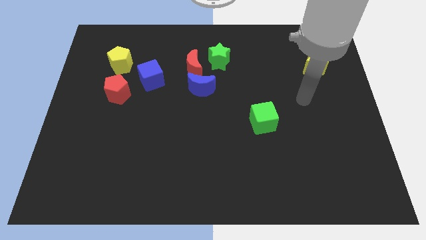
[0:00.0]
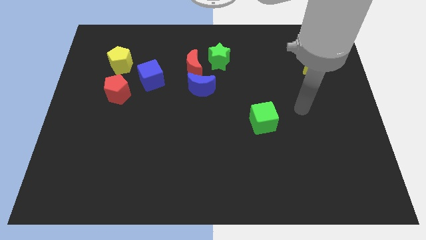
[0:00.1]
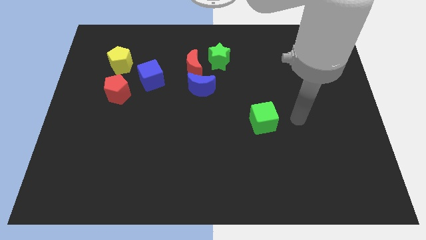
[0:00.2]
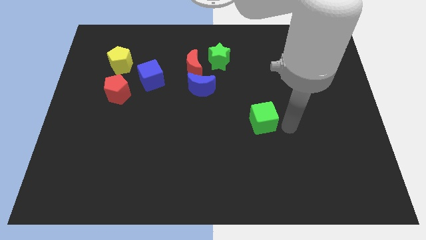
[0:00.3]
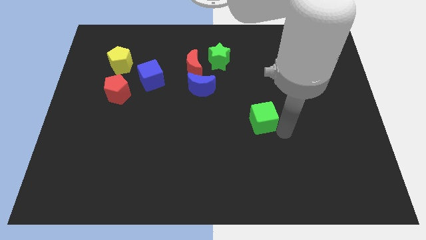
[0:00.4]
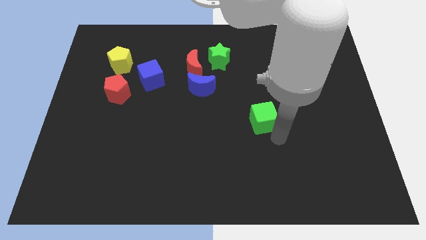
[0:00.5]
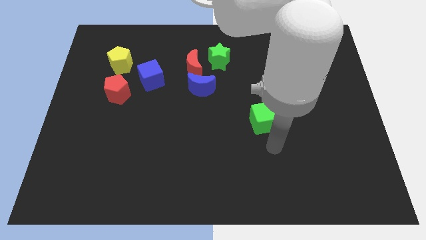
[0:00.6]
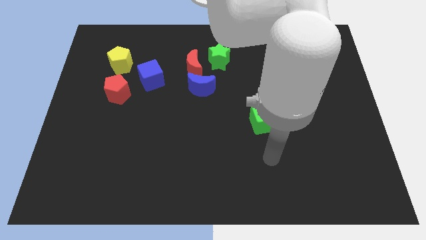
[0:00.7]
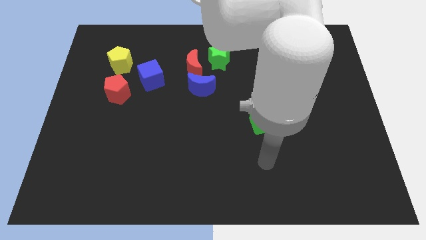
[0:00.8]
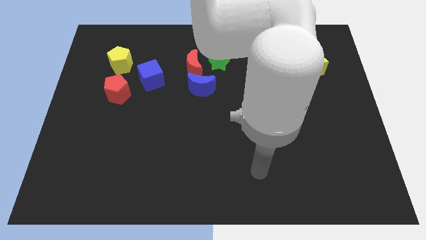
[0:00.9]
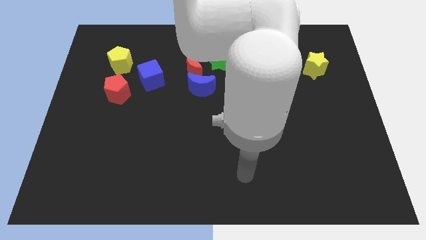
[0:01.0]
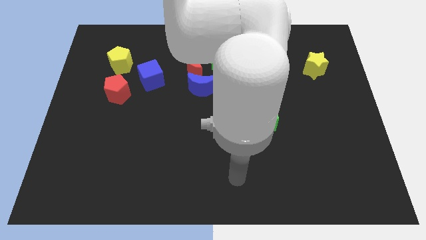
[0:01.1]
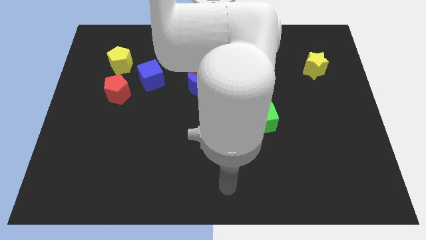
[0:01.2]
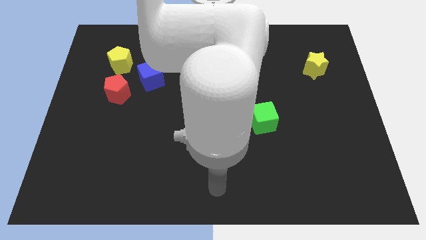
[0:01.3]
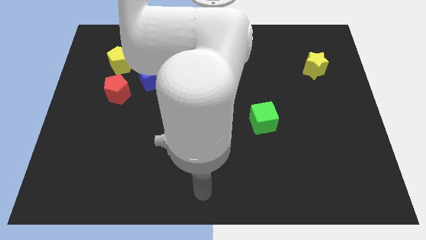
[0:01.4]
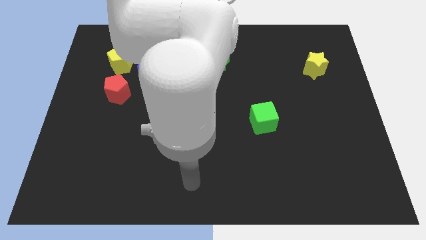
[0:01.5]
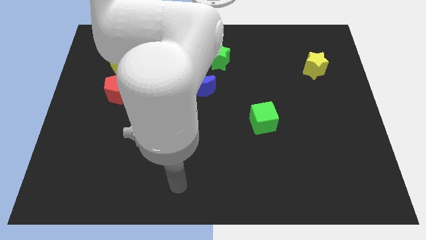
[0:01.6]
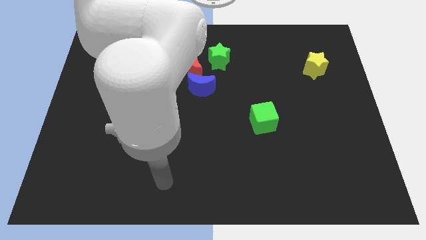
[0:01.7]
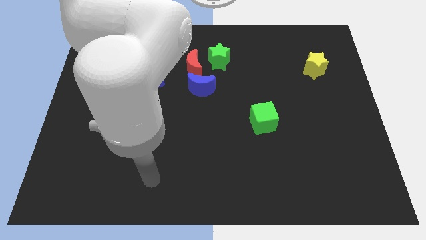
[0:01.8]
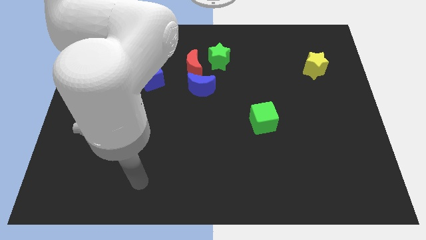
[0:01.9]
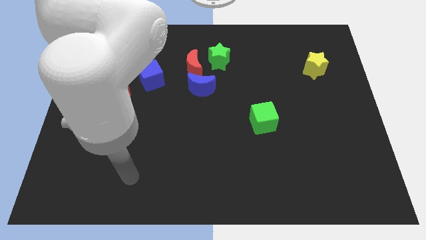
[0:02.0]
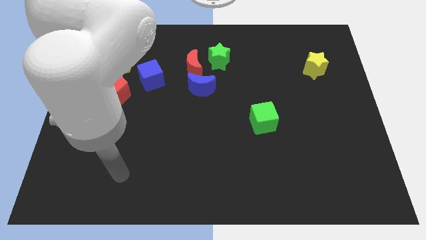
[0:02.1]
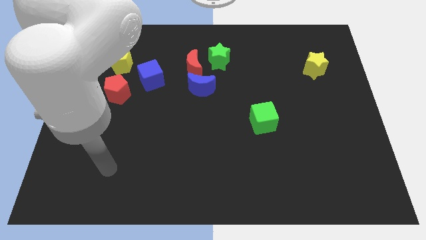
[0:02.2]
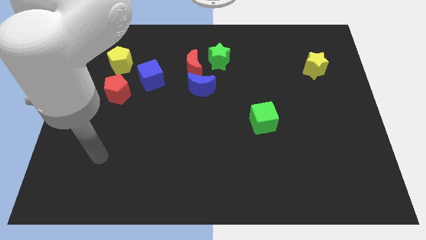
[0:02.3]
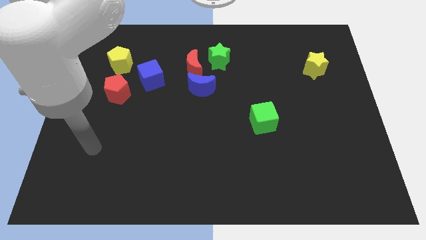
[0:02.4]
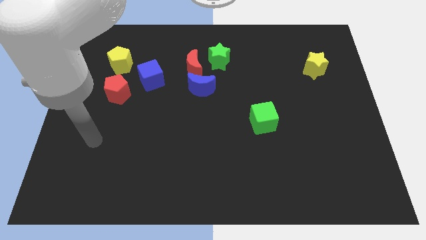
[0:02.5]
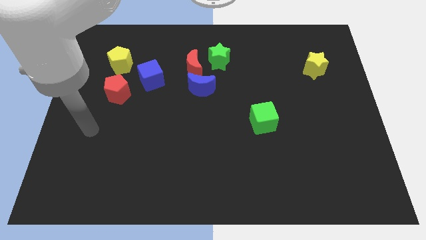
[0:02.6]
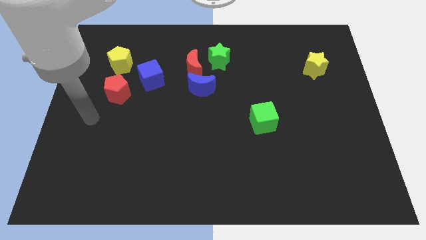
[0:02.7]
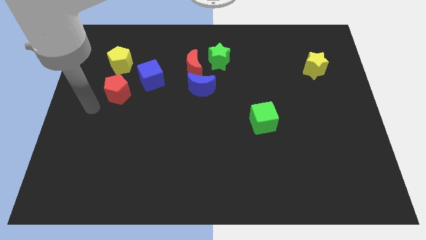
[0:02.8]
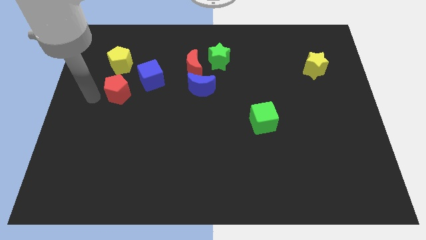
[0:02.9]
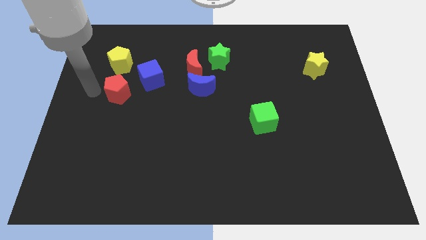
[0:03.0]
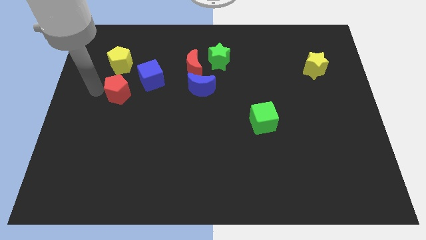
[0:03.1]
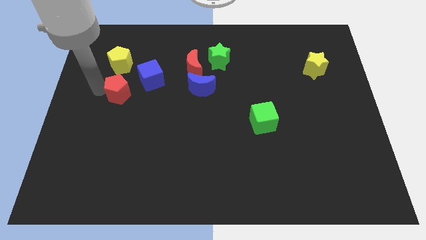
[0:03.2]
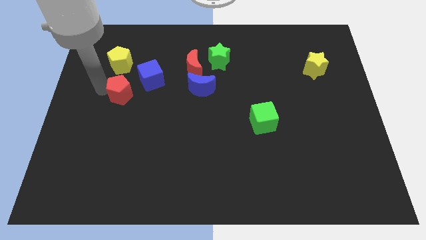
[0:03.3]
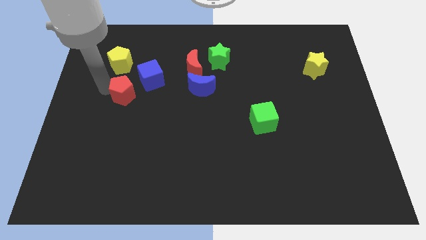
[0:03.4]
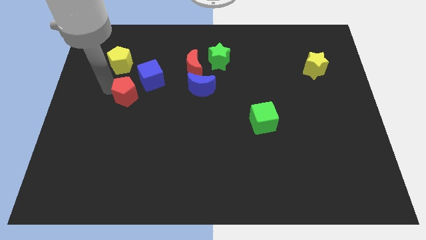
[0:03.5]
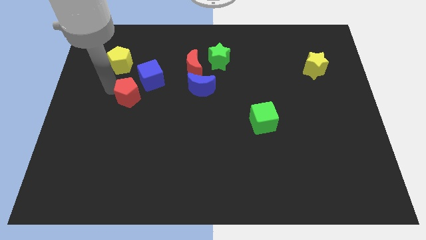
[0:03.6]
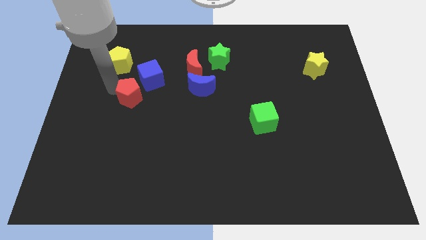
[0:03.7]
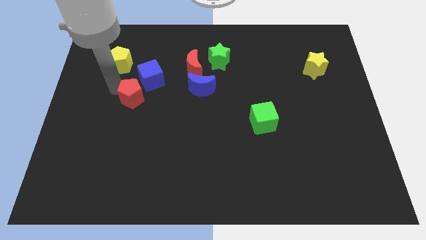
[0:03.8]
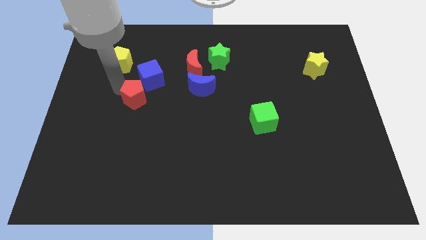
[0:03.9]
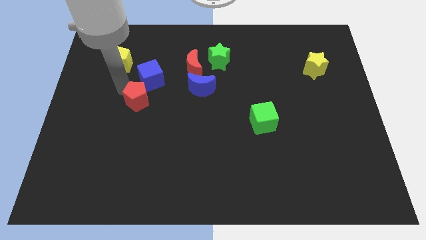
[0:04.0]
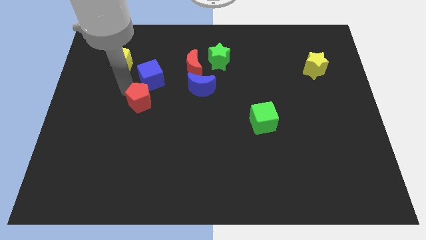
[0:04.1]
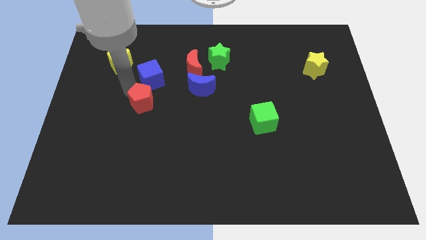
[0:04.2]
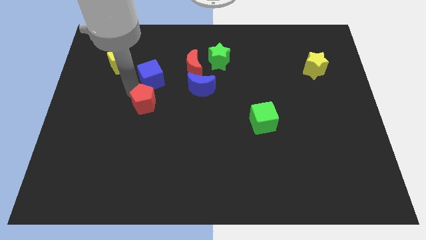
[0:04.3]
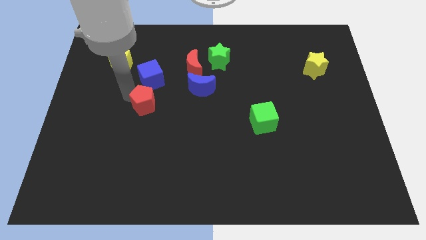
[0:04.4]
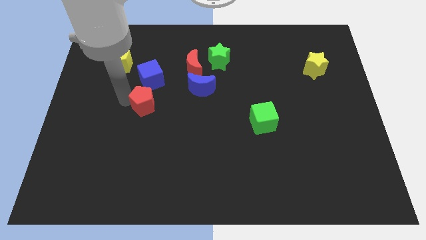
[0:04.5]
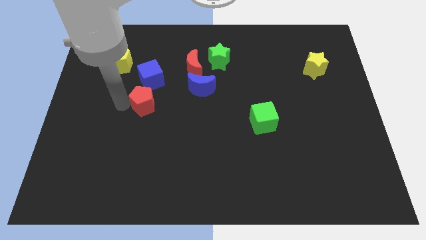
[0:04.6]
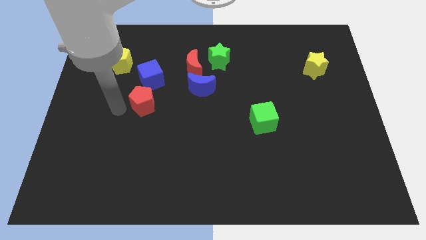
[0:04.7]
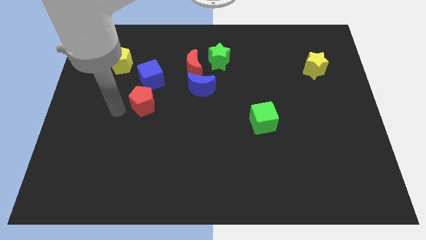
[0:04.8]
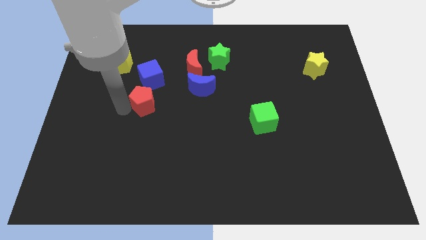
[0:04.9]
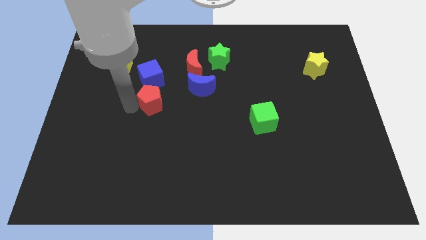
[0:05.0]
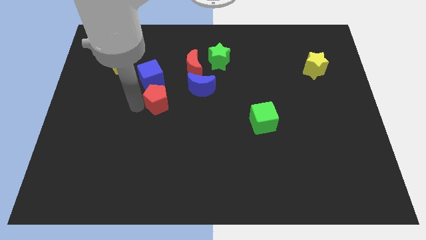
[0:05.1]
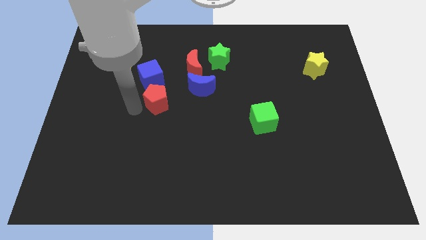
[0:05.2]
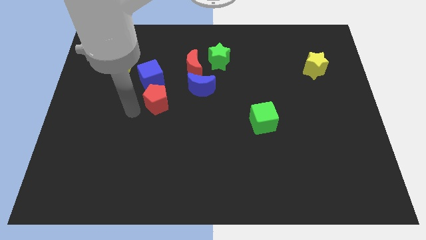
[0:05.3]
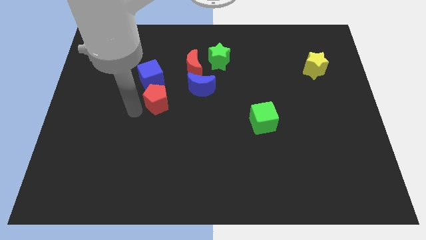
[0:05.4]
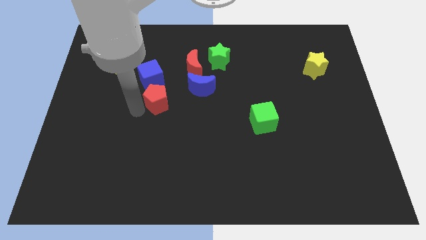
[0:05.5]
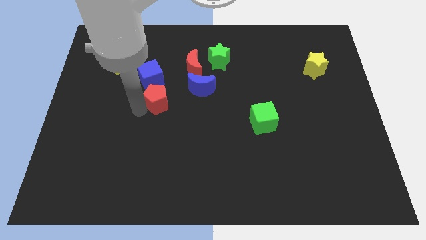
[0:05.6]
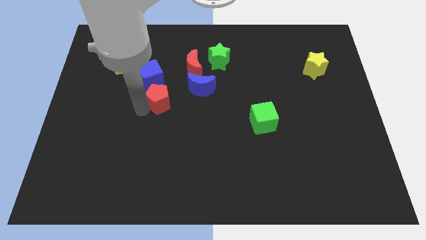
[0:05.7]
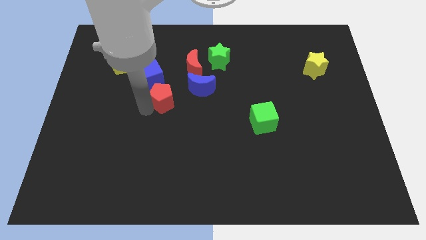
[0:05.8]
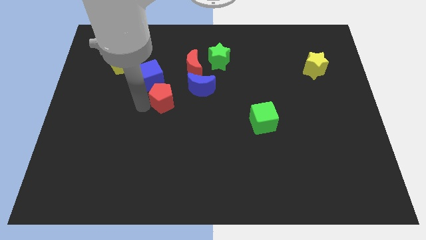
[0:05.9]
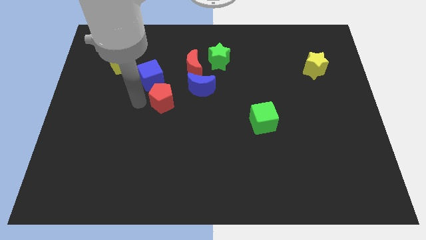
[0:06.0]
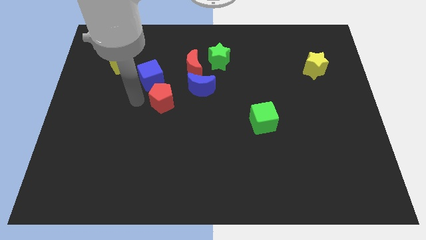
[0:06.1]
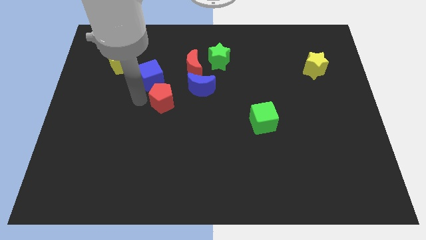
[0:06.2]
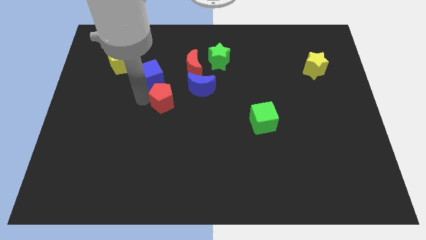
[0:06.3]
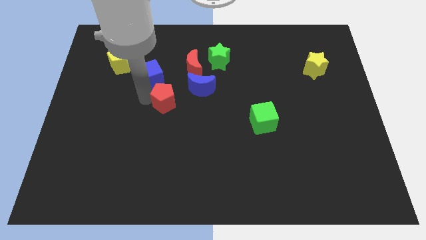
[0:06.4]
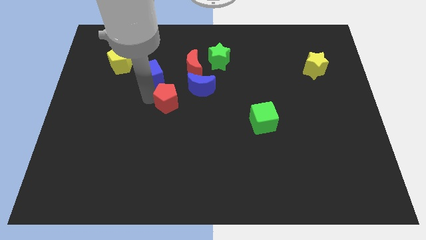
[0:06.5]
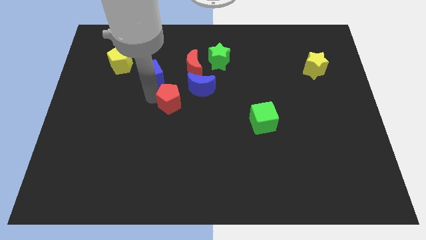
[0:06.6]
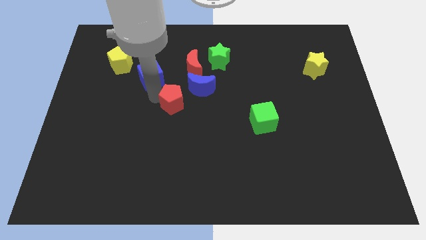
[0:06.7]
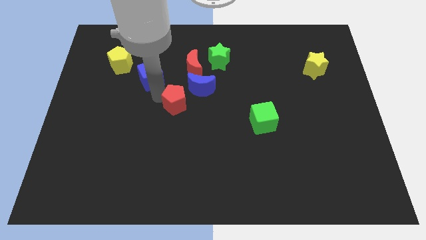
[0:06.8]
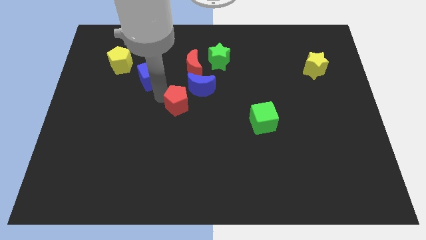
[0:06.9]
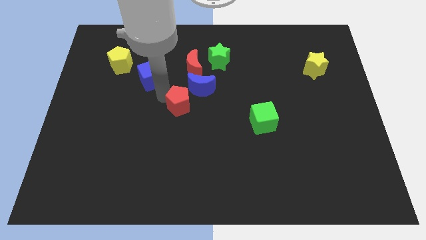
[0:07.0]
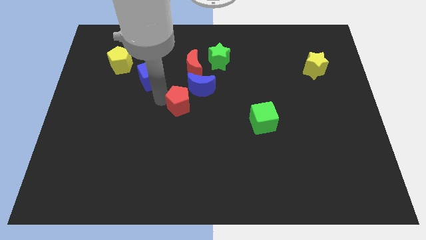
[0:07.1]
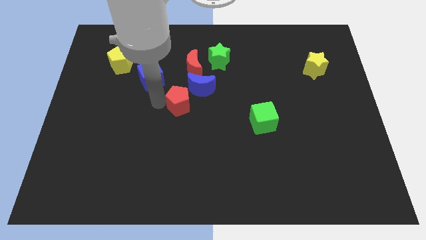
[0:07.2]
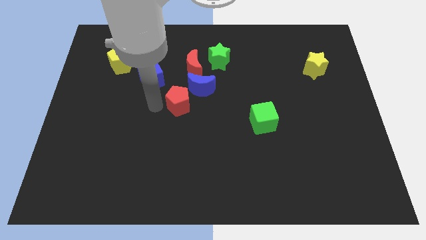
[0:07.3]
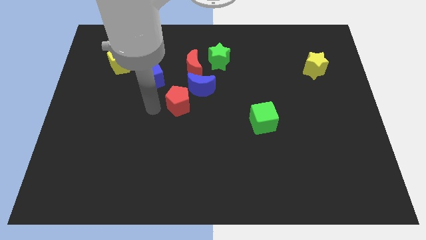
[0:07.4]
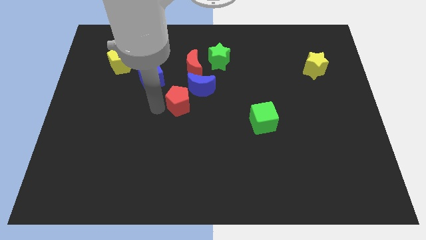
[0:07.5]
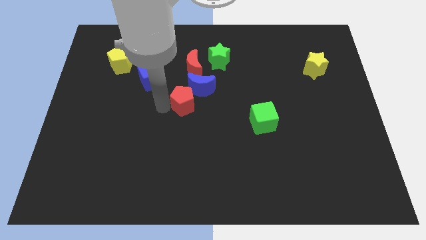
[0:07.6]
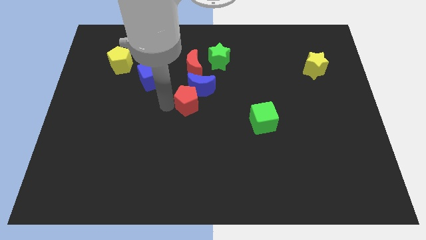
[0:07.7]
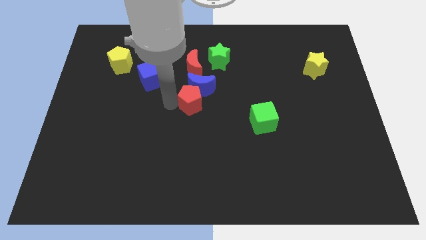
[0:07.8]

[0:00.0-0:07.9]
slide the red pentagon to the bottom right side of the blue moon
